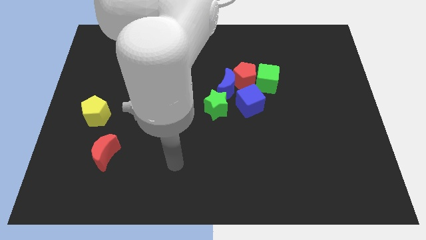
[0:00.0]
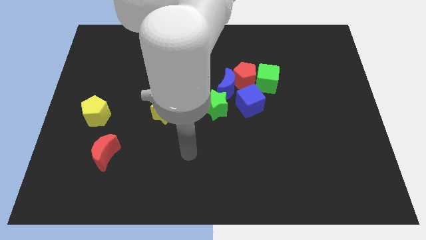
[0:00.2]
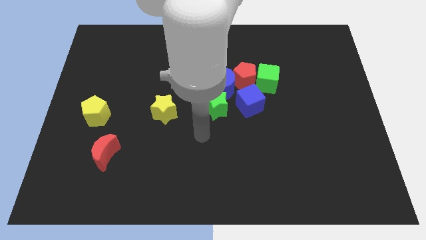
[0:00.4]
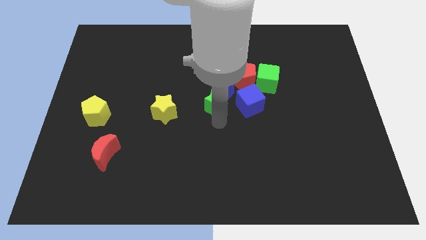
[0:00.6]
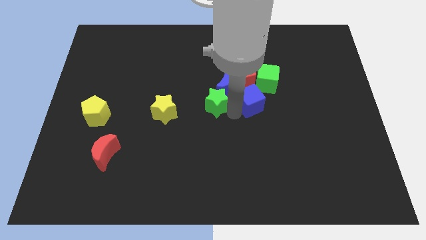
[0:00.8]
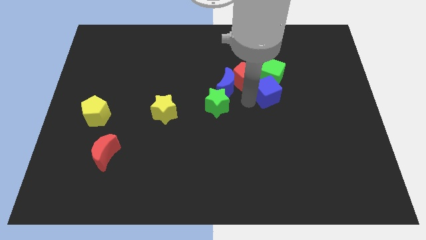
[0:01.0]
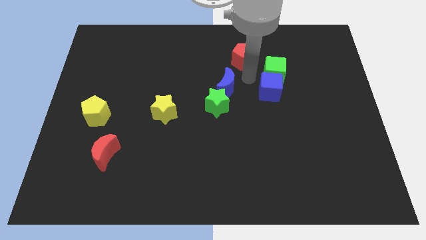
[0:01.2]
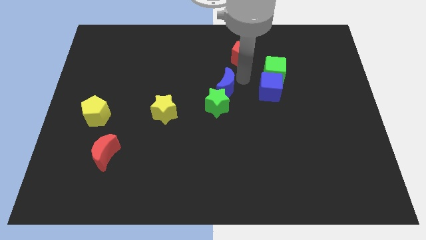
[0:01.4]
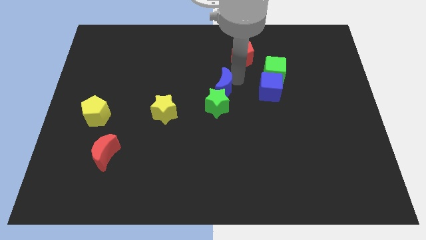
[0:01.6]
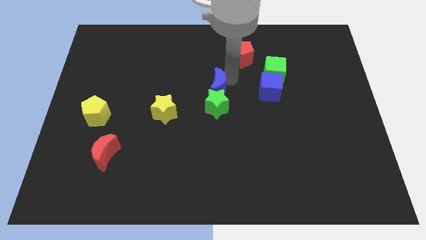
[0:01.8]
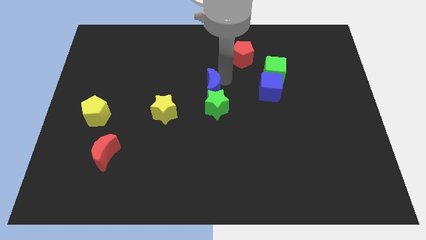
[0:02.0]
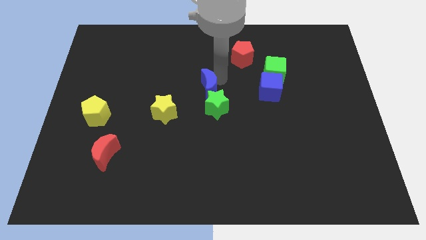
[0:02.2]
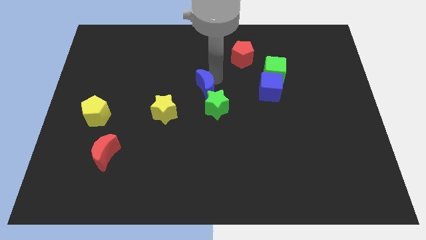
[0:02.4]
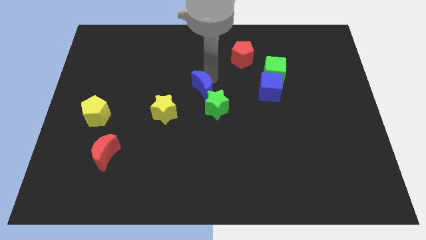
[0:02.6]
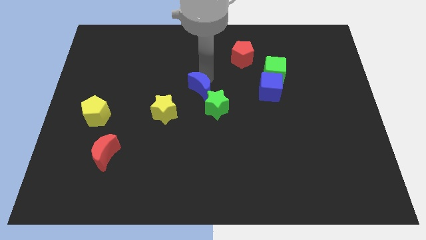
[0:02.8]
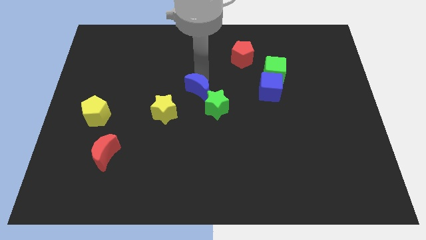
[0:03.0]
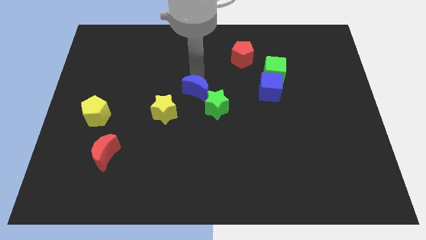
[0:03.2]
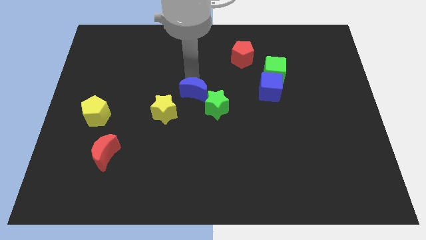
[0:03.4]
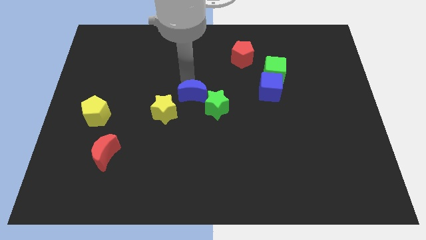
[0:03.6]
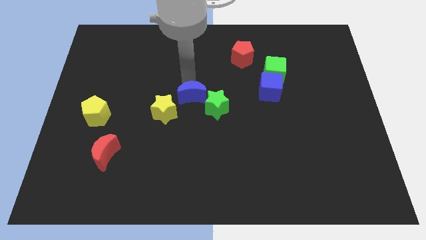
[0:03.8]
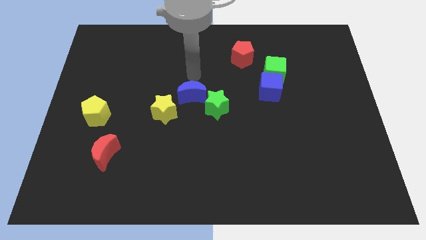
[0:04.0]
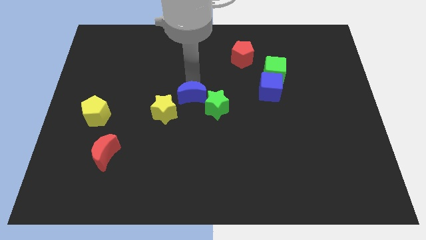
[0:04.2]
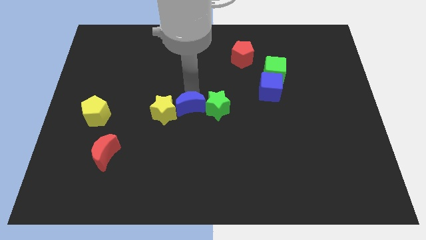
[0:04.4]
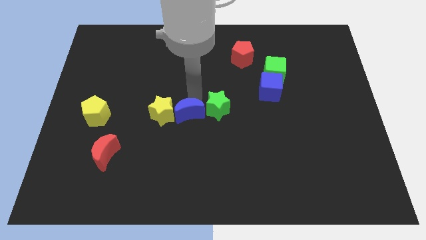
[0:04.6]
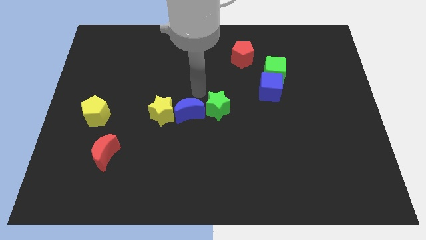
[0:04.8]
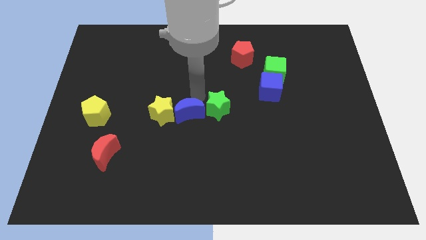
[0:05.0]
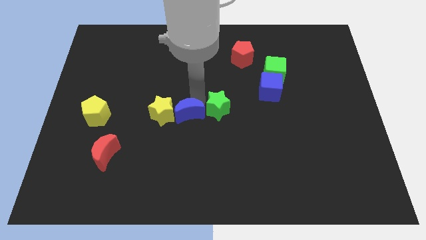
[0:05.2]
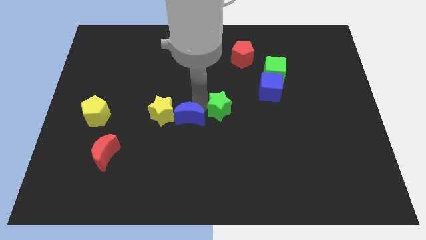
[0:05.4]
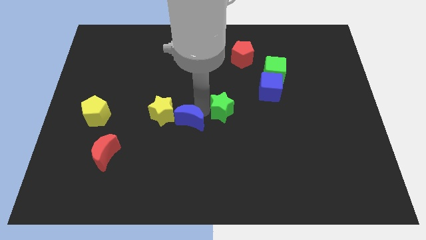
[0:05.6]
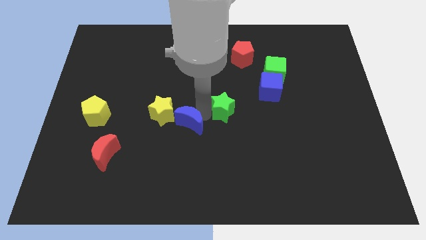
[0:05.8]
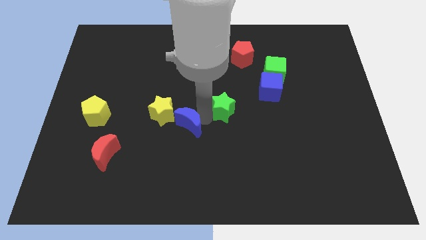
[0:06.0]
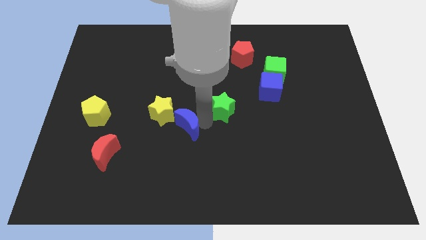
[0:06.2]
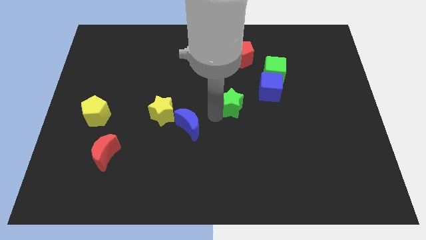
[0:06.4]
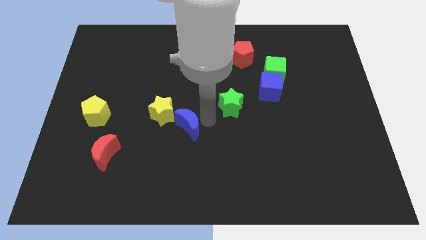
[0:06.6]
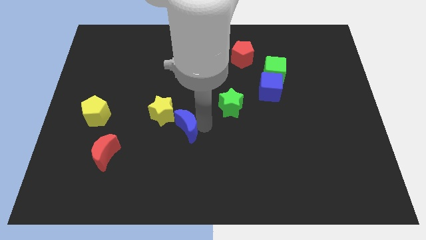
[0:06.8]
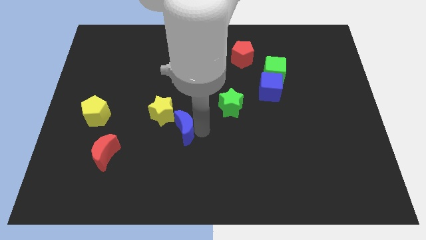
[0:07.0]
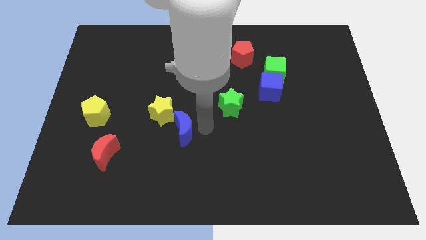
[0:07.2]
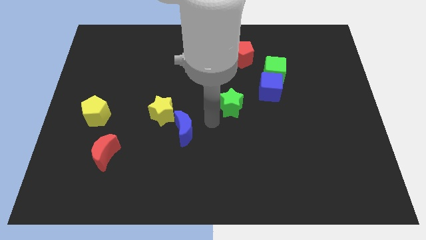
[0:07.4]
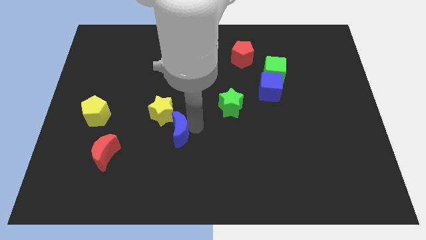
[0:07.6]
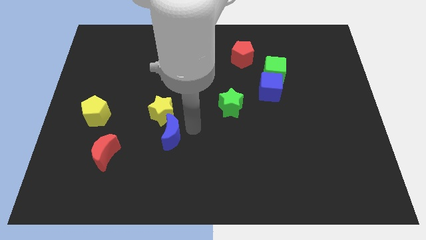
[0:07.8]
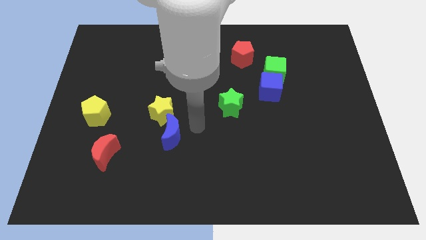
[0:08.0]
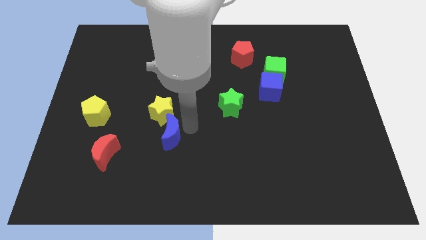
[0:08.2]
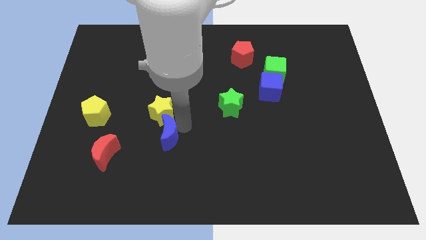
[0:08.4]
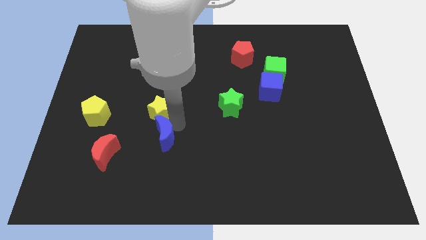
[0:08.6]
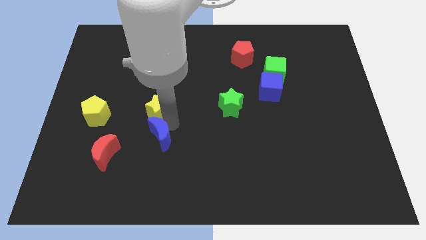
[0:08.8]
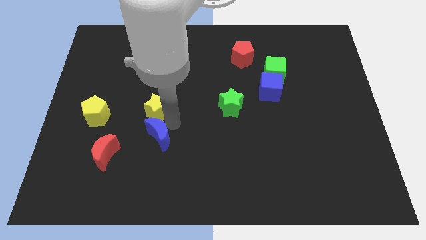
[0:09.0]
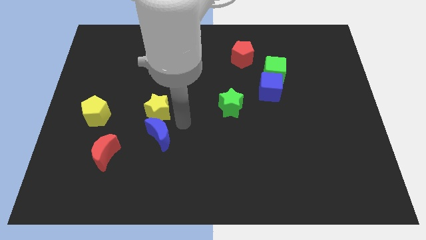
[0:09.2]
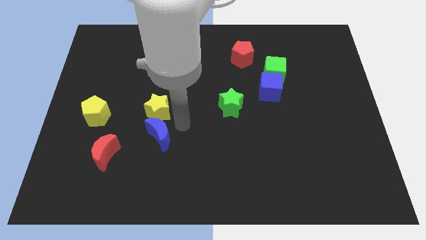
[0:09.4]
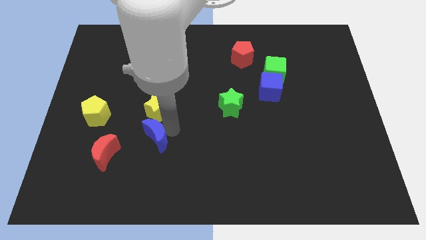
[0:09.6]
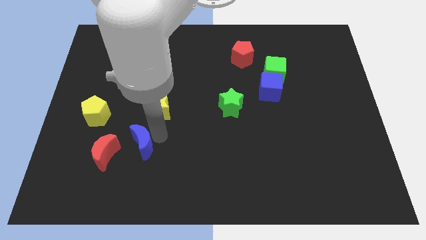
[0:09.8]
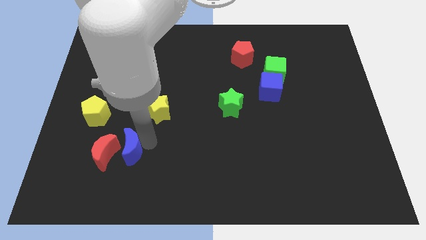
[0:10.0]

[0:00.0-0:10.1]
put the blue moon towards the red moon

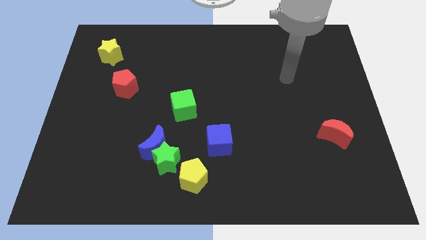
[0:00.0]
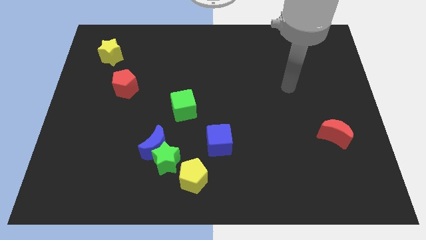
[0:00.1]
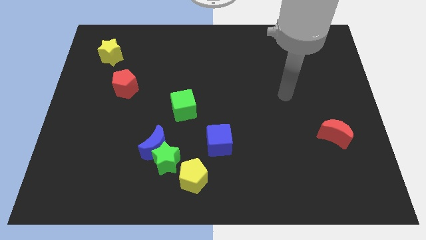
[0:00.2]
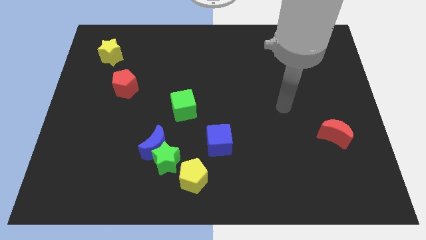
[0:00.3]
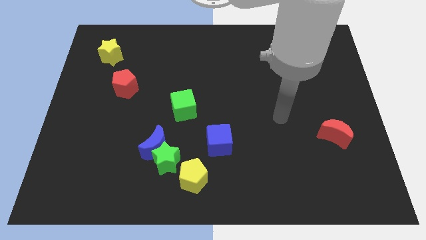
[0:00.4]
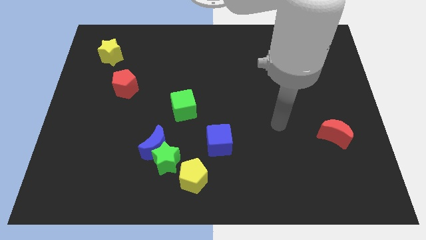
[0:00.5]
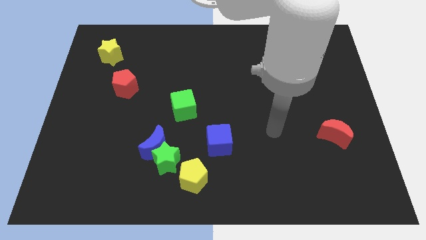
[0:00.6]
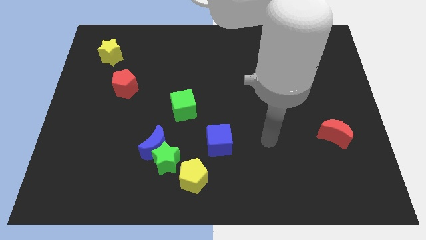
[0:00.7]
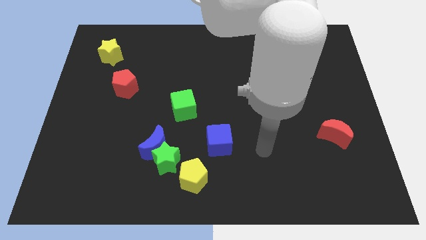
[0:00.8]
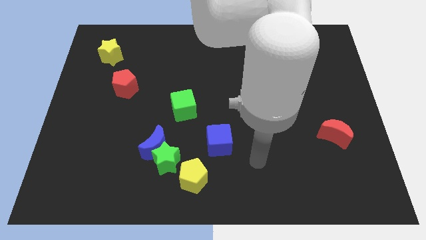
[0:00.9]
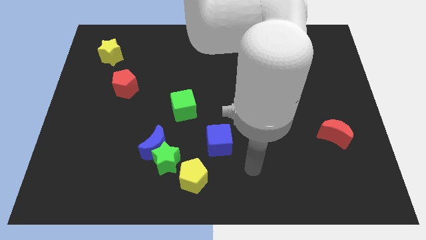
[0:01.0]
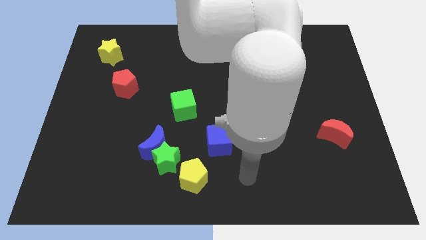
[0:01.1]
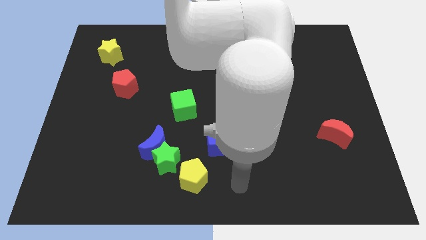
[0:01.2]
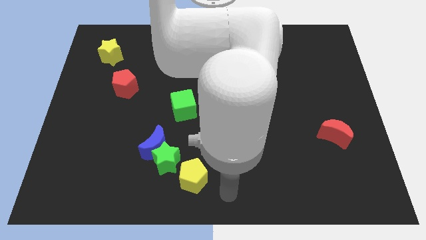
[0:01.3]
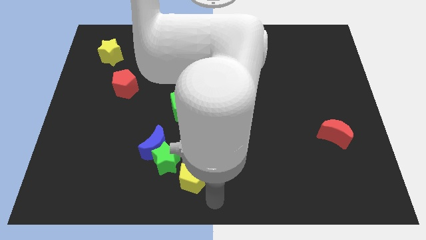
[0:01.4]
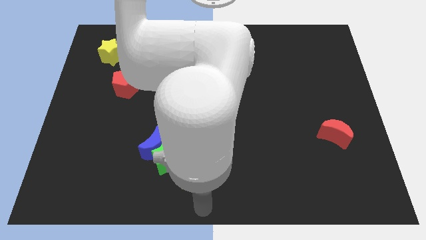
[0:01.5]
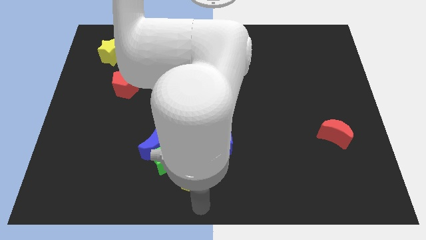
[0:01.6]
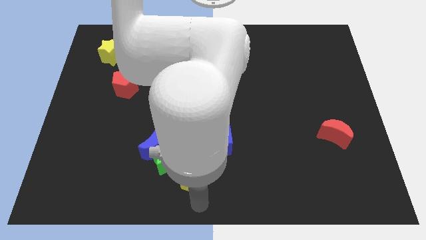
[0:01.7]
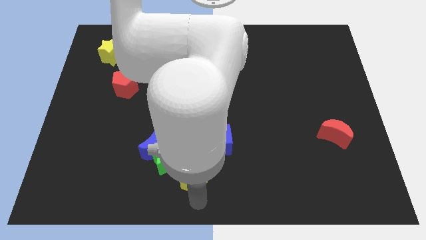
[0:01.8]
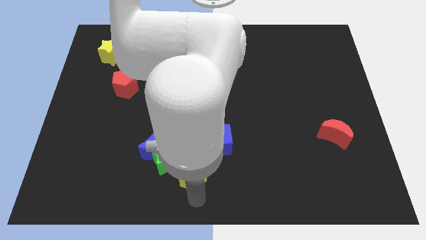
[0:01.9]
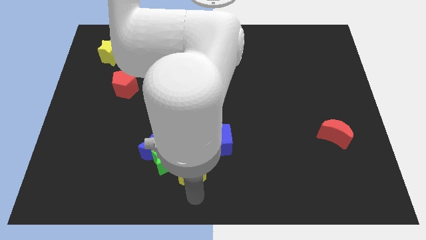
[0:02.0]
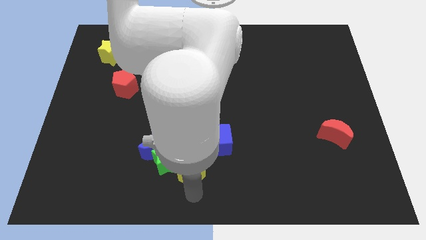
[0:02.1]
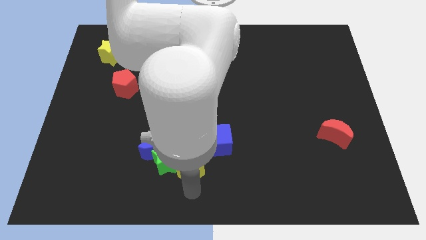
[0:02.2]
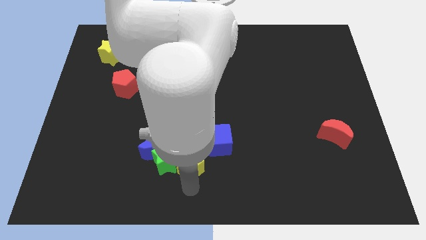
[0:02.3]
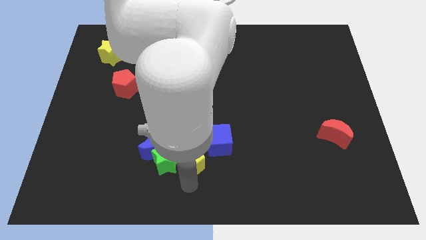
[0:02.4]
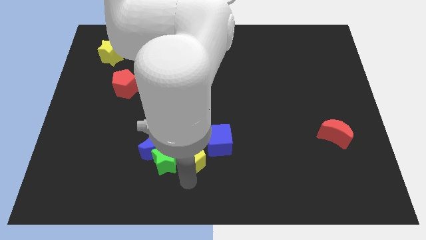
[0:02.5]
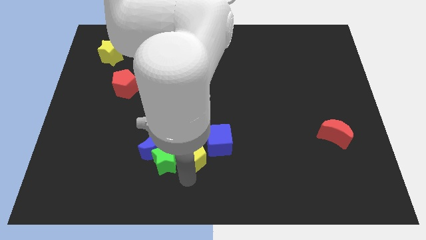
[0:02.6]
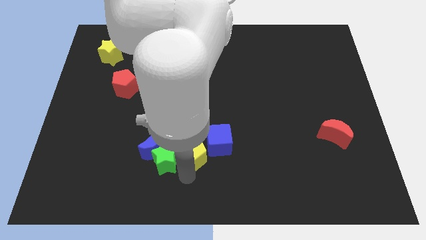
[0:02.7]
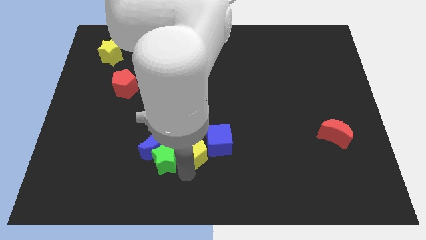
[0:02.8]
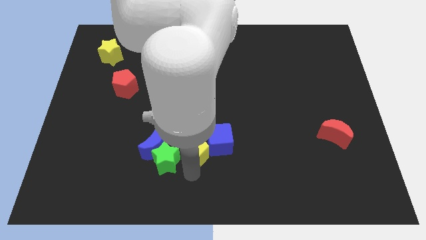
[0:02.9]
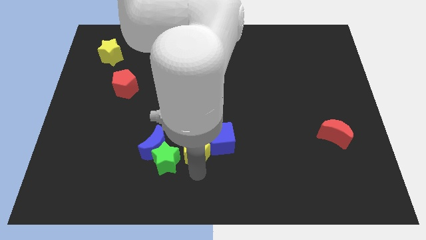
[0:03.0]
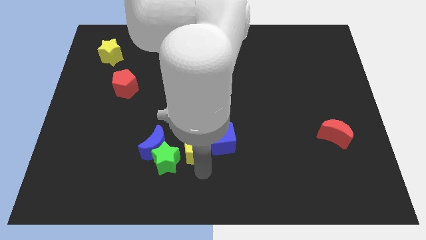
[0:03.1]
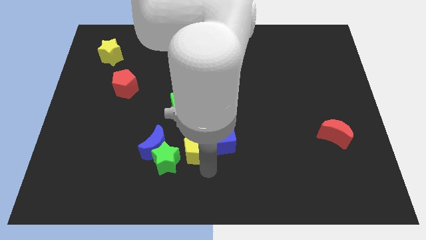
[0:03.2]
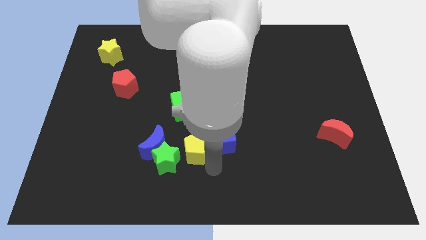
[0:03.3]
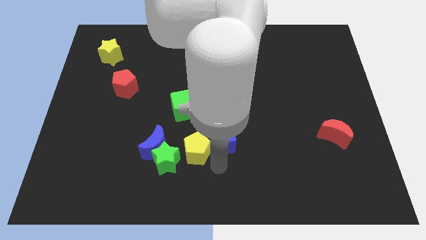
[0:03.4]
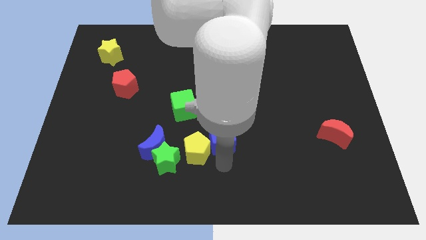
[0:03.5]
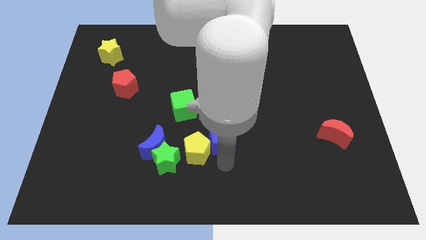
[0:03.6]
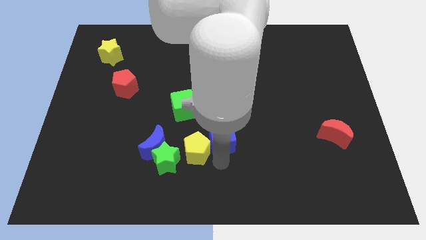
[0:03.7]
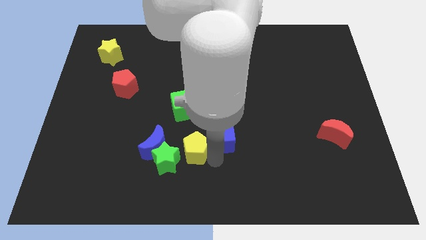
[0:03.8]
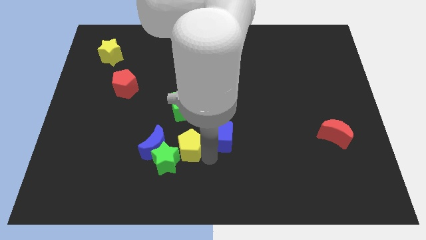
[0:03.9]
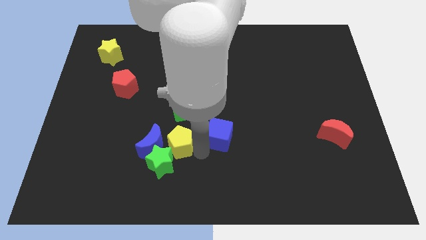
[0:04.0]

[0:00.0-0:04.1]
put the yellow pentagon towards the blue moon
